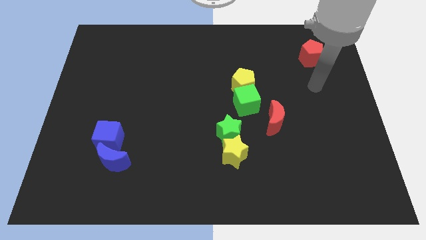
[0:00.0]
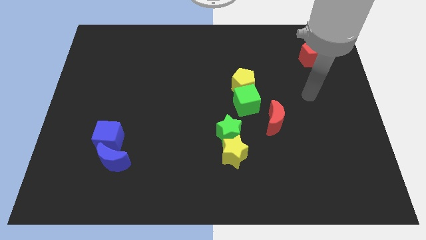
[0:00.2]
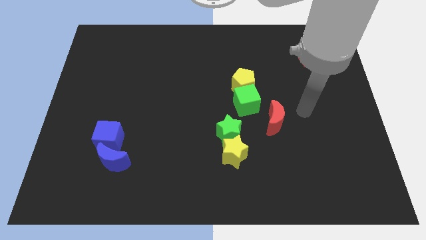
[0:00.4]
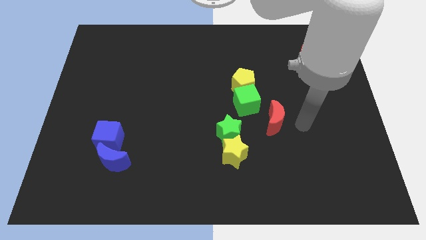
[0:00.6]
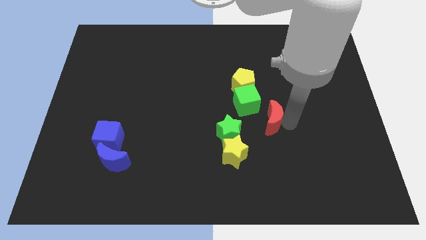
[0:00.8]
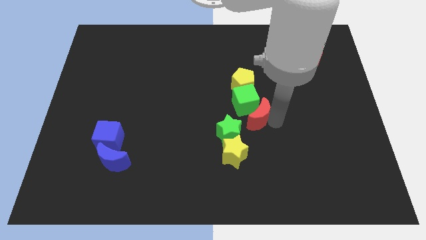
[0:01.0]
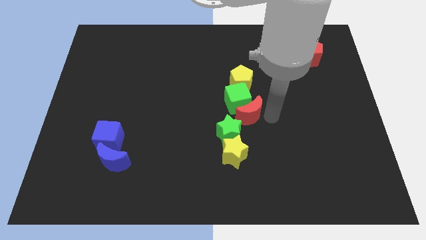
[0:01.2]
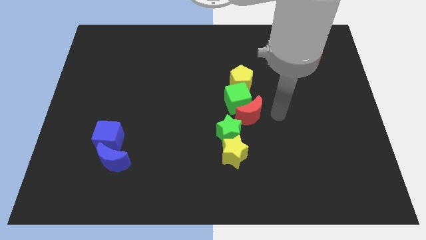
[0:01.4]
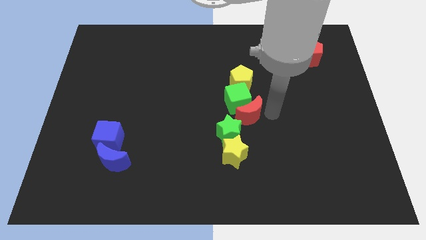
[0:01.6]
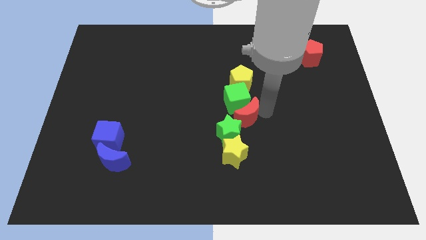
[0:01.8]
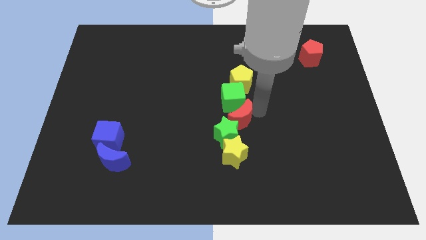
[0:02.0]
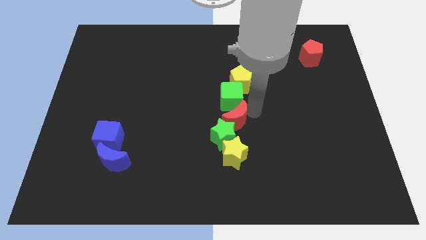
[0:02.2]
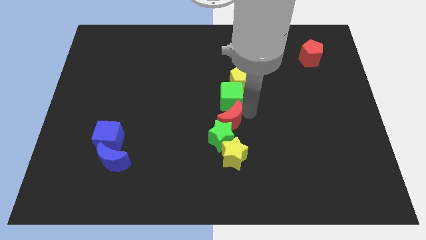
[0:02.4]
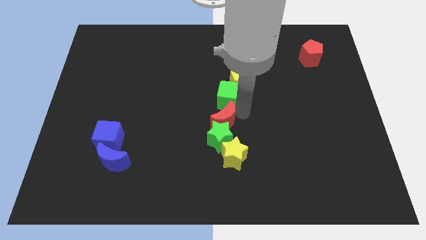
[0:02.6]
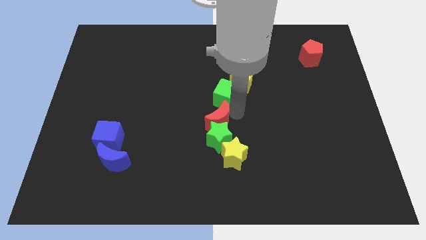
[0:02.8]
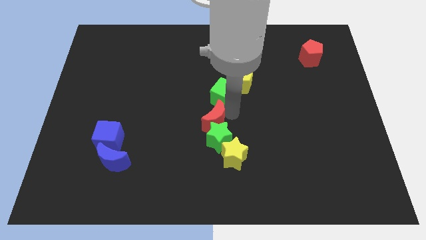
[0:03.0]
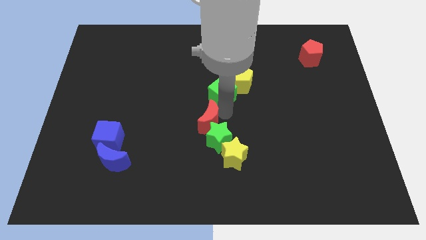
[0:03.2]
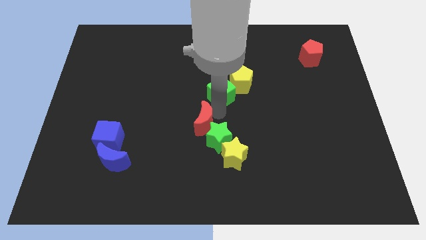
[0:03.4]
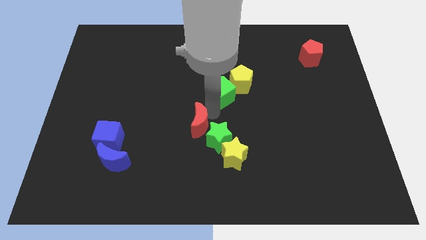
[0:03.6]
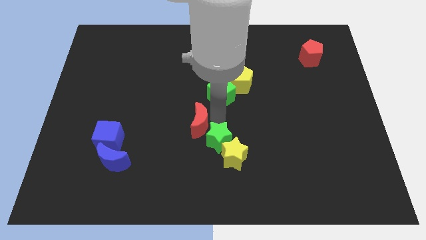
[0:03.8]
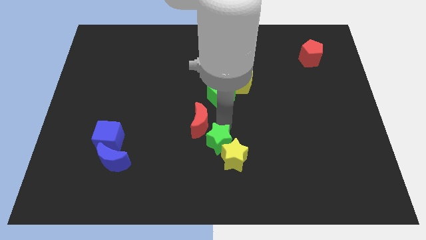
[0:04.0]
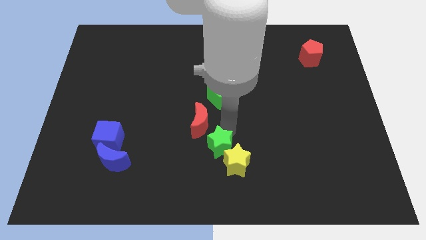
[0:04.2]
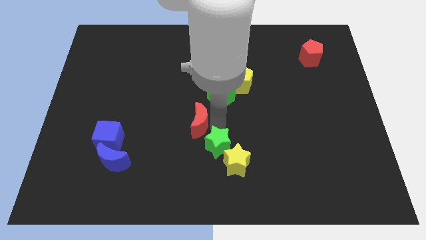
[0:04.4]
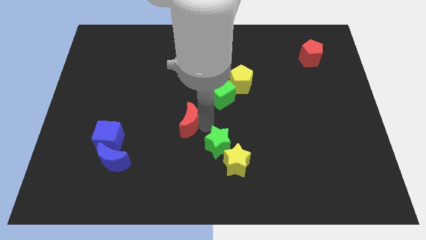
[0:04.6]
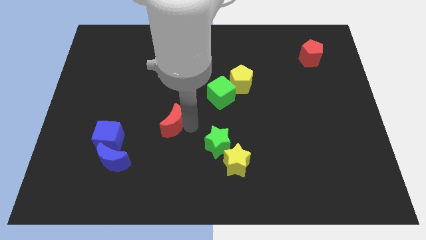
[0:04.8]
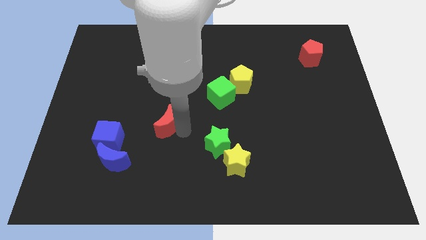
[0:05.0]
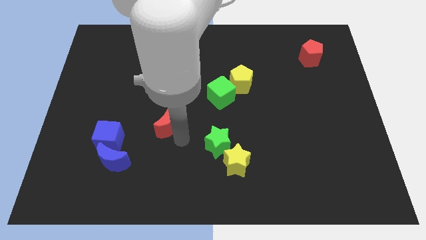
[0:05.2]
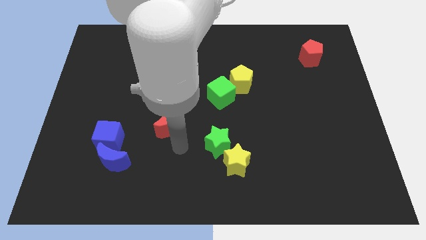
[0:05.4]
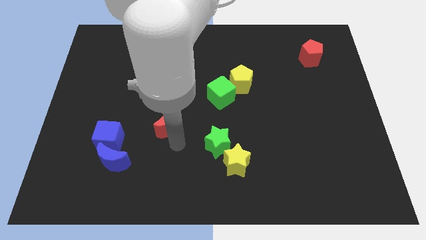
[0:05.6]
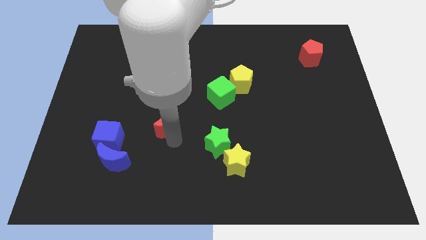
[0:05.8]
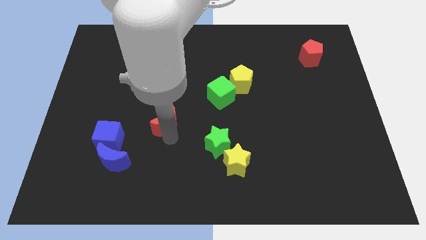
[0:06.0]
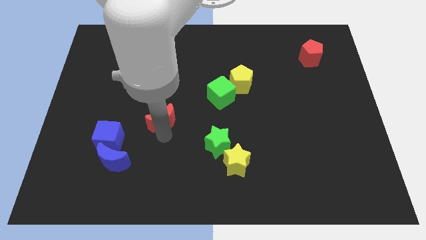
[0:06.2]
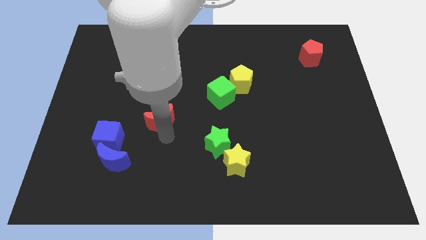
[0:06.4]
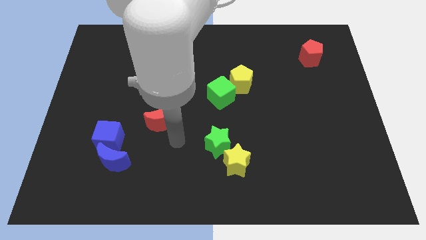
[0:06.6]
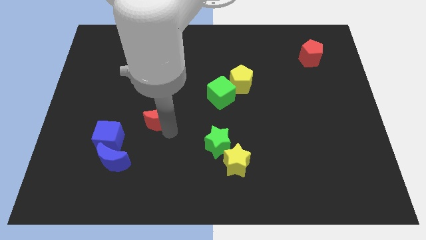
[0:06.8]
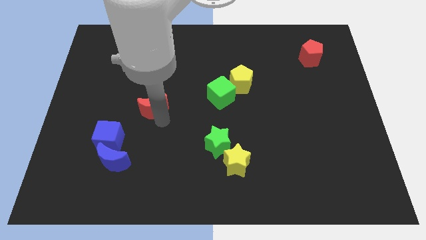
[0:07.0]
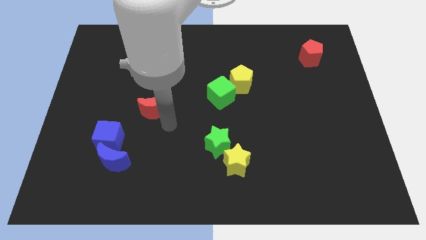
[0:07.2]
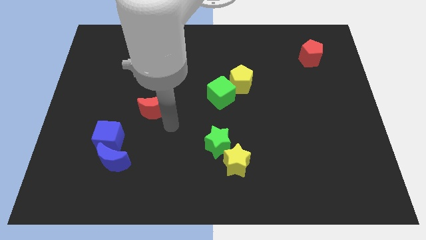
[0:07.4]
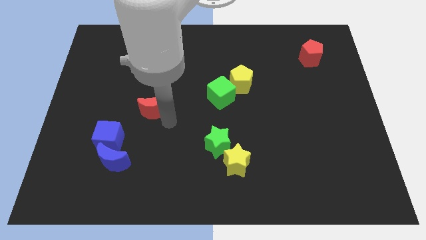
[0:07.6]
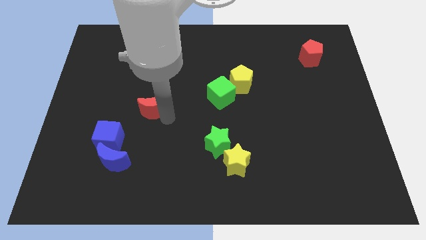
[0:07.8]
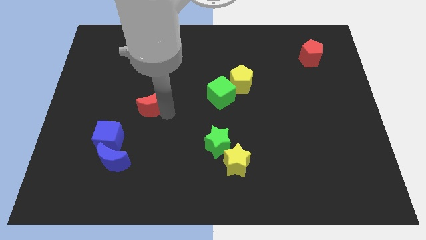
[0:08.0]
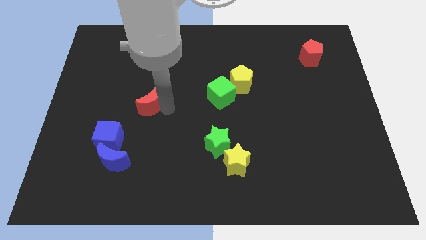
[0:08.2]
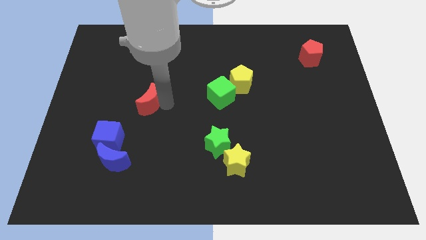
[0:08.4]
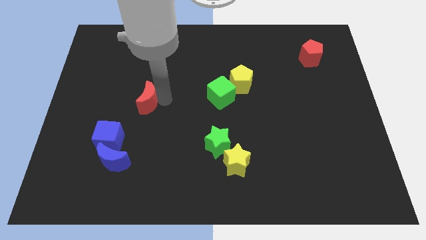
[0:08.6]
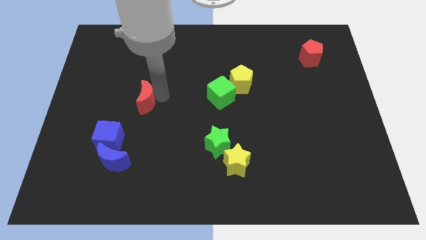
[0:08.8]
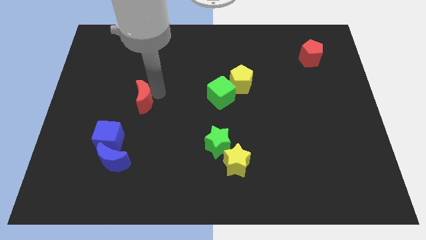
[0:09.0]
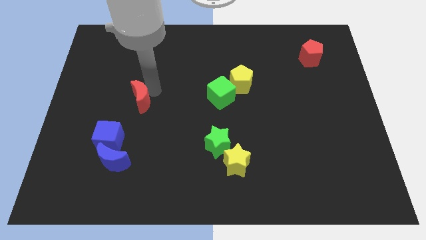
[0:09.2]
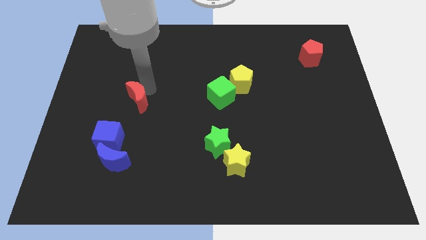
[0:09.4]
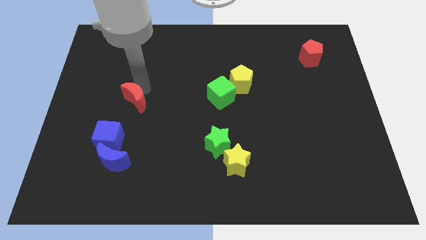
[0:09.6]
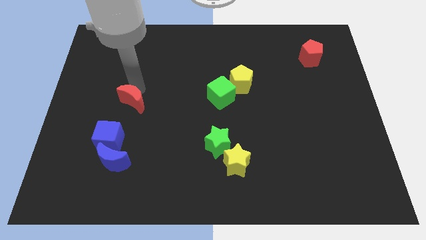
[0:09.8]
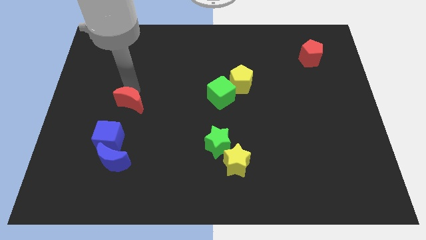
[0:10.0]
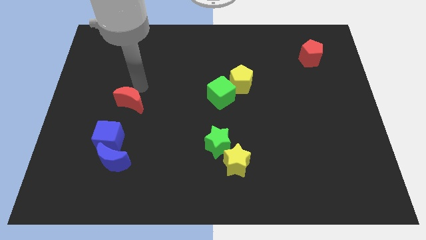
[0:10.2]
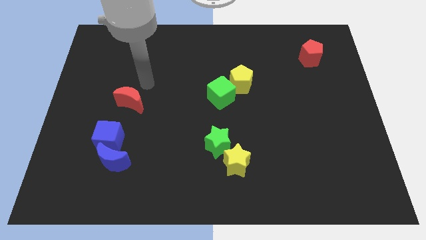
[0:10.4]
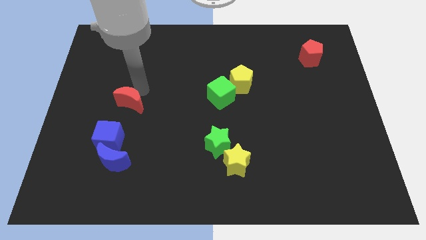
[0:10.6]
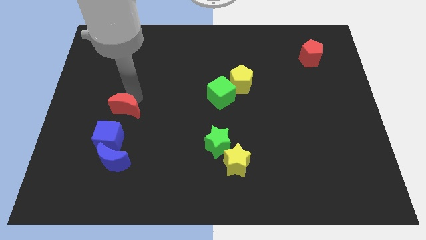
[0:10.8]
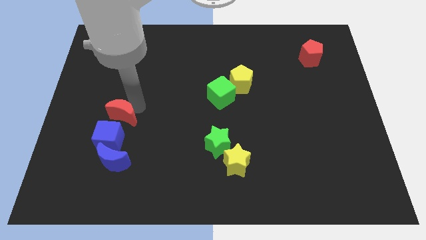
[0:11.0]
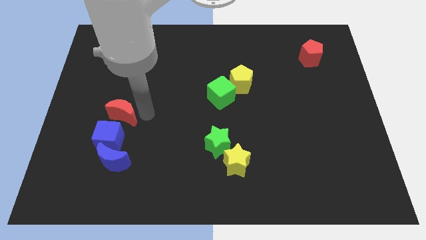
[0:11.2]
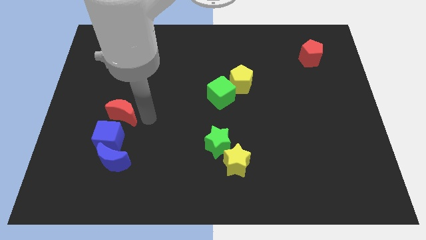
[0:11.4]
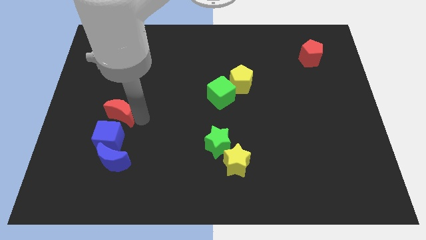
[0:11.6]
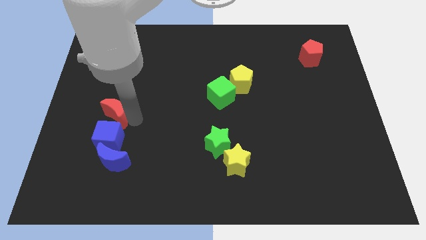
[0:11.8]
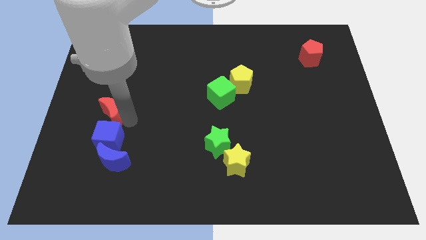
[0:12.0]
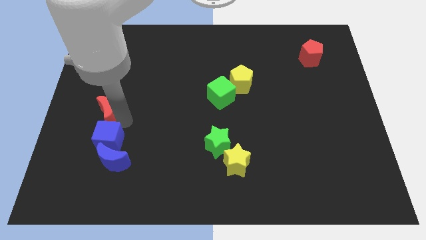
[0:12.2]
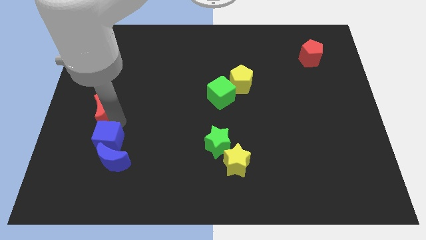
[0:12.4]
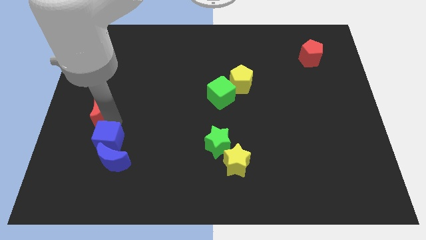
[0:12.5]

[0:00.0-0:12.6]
slide the red moon to the left side
